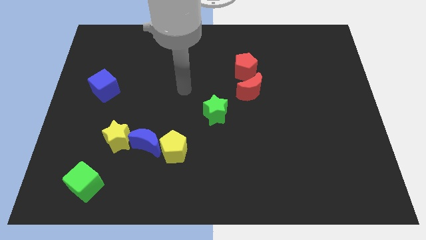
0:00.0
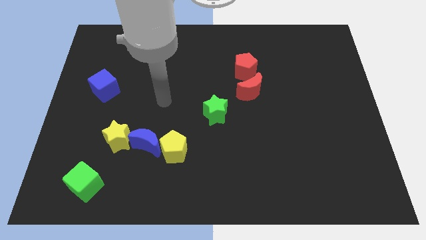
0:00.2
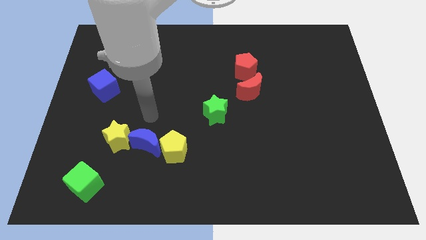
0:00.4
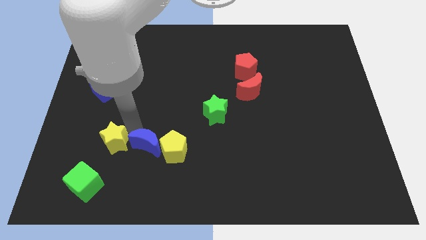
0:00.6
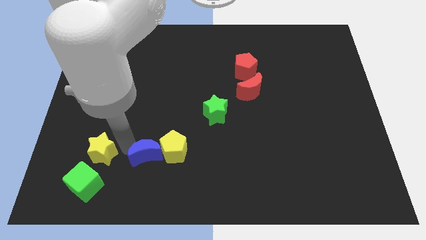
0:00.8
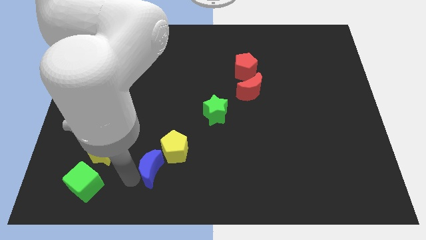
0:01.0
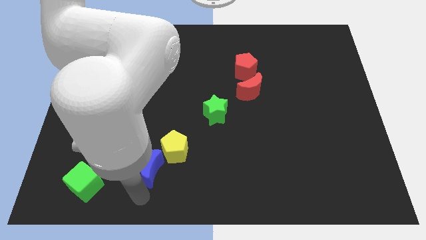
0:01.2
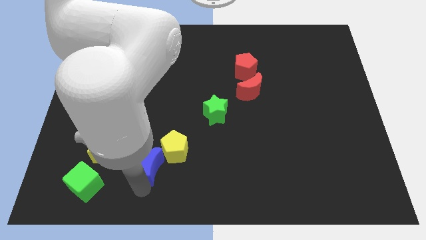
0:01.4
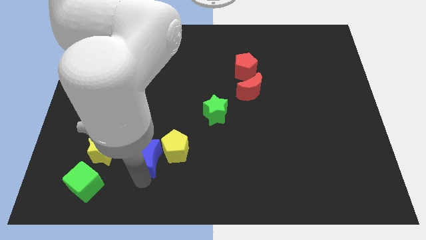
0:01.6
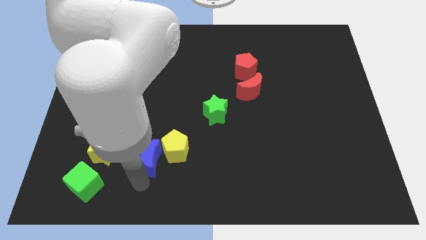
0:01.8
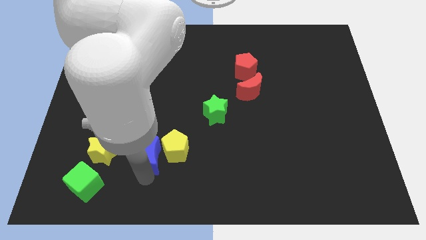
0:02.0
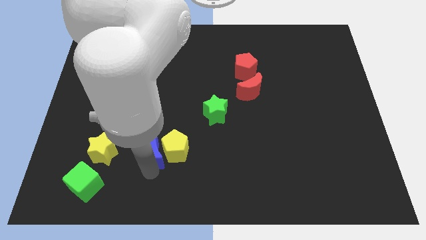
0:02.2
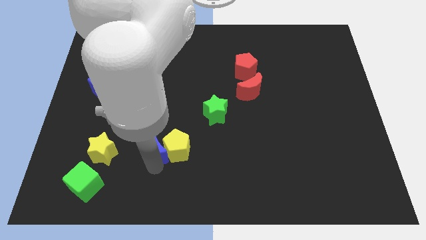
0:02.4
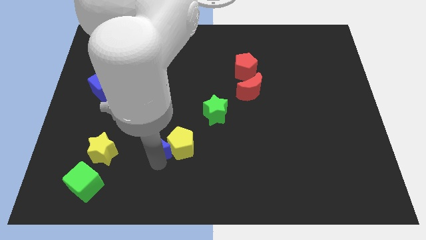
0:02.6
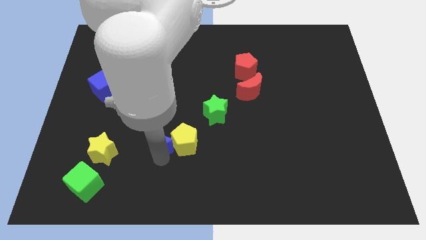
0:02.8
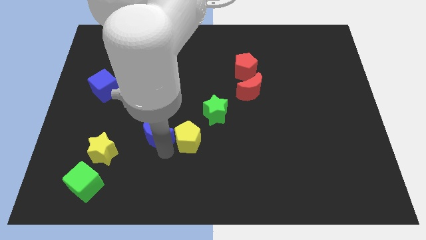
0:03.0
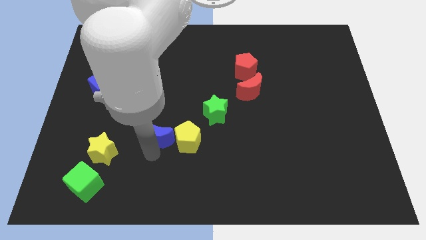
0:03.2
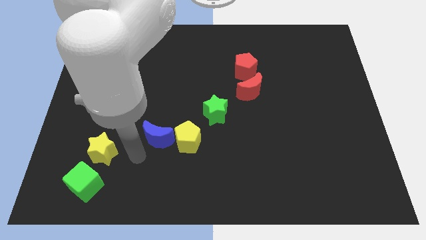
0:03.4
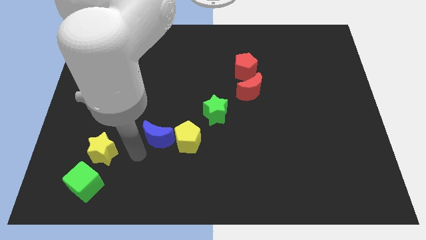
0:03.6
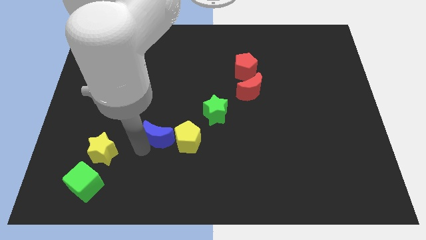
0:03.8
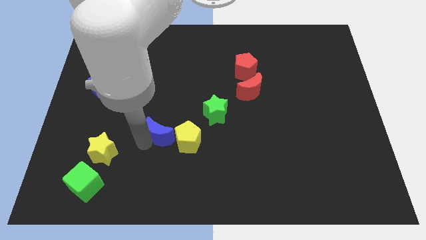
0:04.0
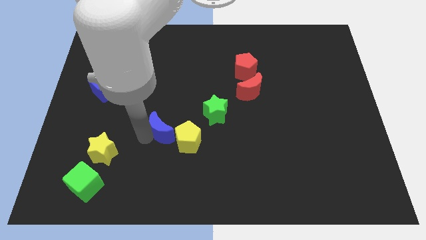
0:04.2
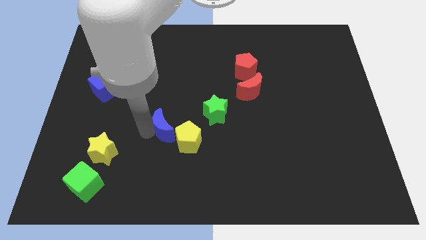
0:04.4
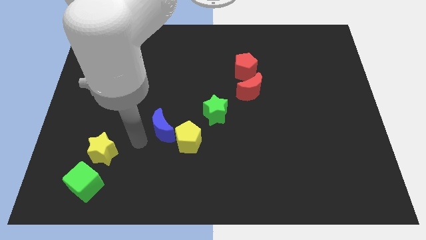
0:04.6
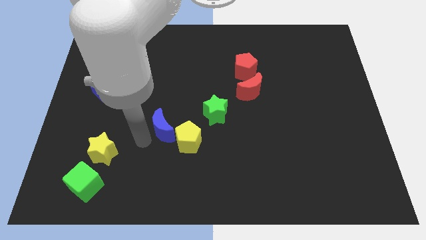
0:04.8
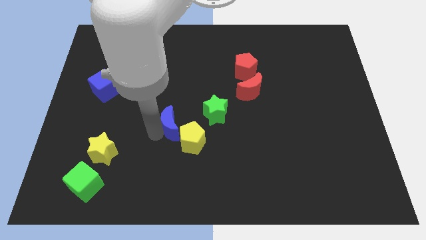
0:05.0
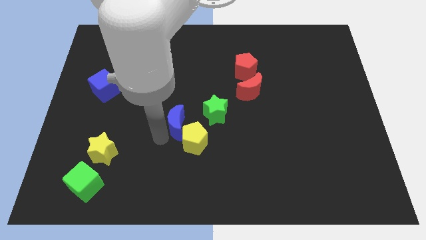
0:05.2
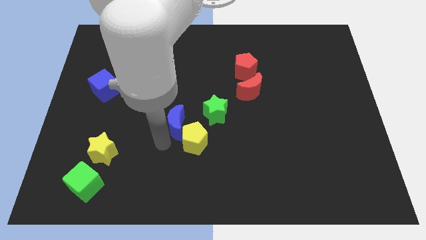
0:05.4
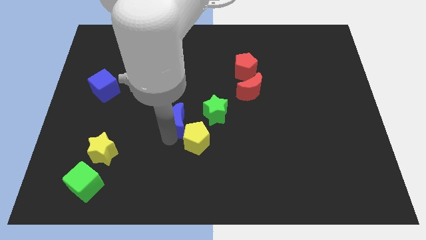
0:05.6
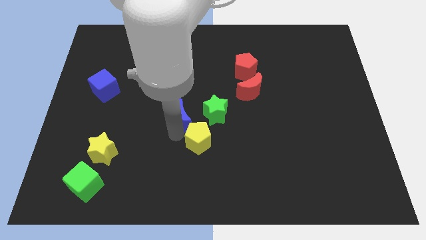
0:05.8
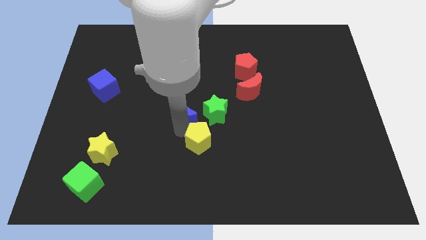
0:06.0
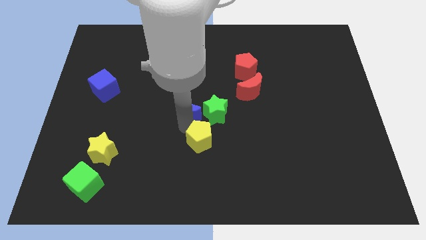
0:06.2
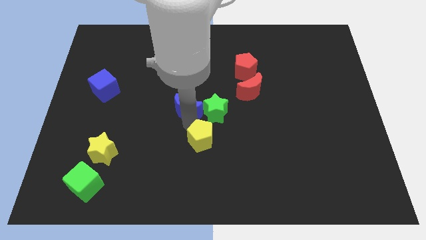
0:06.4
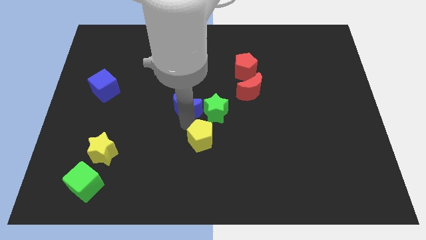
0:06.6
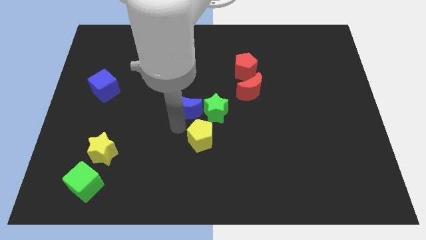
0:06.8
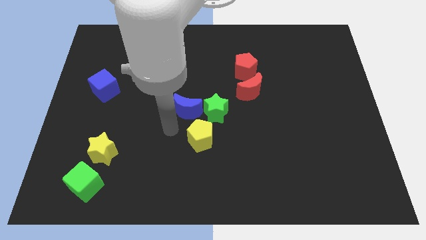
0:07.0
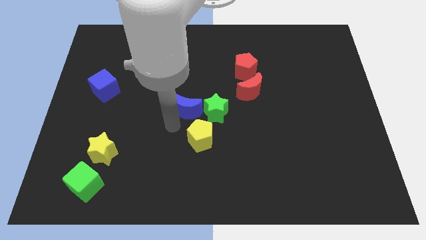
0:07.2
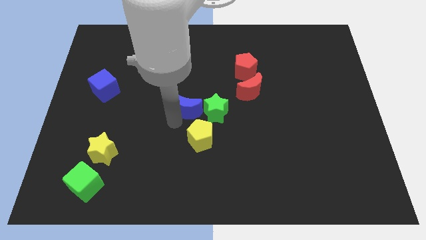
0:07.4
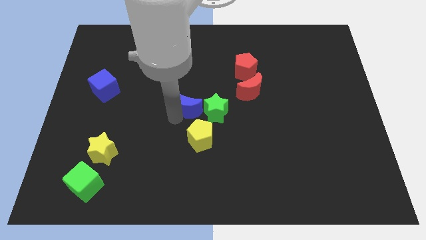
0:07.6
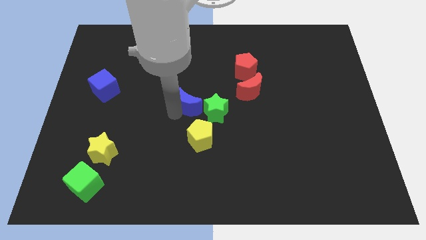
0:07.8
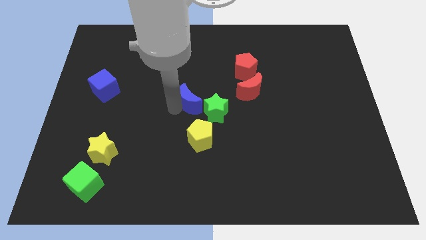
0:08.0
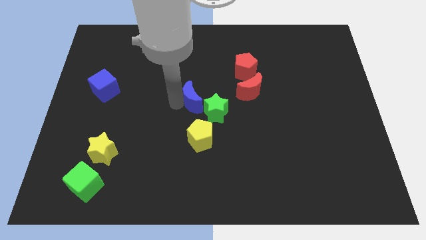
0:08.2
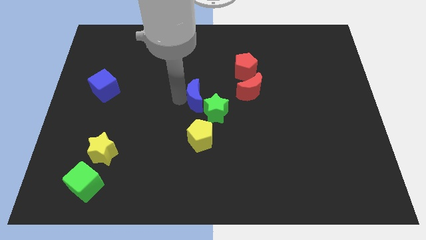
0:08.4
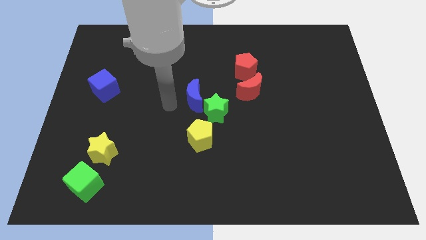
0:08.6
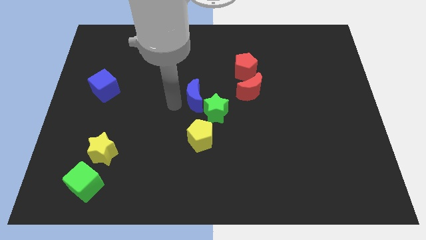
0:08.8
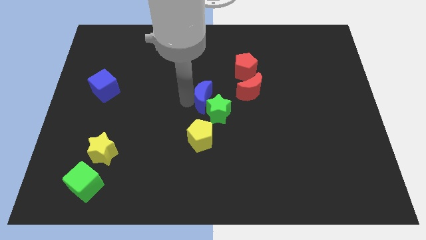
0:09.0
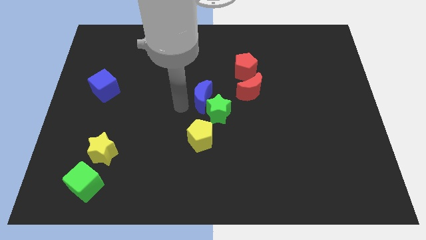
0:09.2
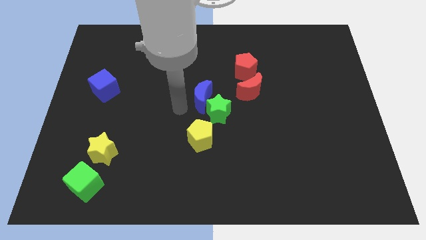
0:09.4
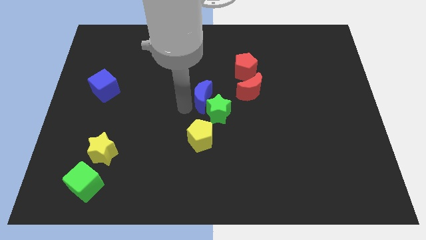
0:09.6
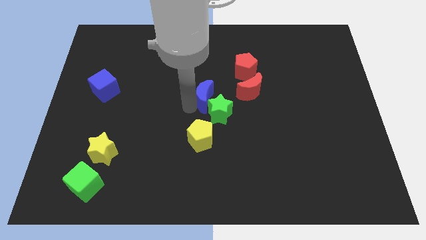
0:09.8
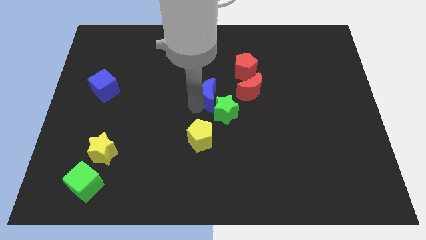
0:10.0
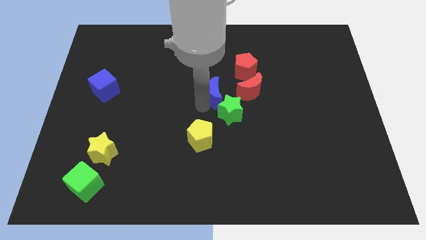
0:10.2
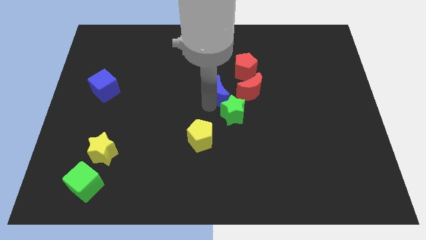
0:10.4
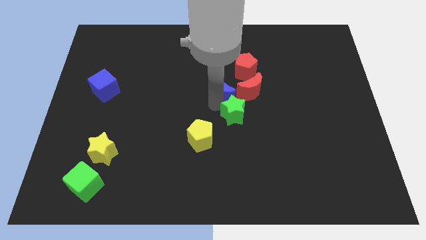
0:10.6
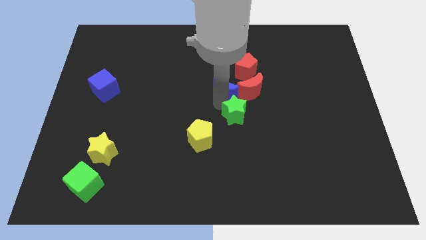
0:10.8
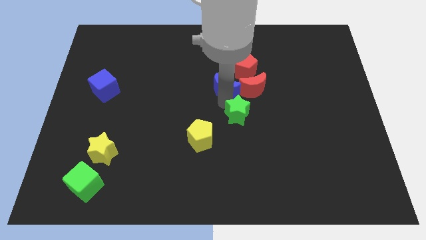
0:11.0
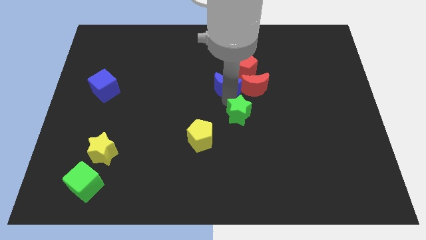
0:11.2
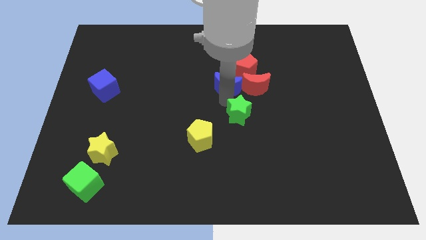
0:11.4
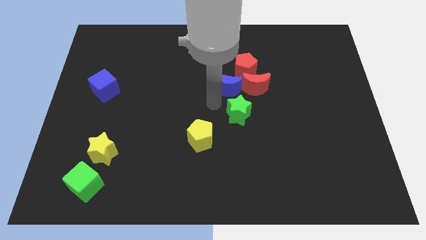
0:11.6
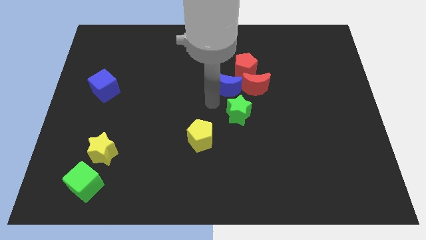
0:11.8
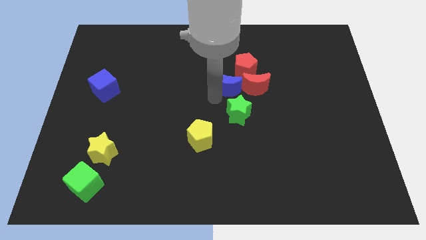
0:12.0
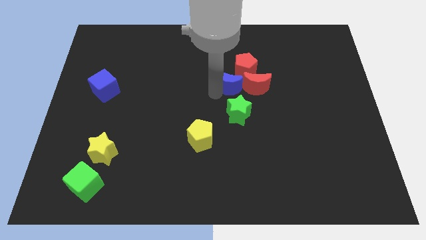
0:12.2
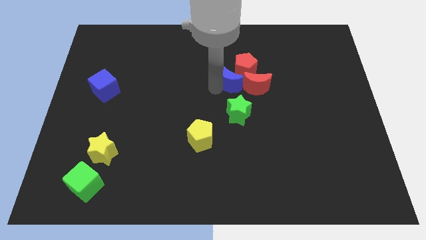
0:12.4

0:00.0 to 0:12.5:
move the blue moon next to the red pentagon

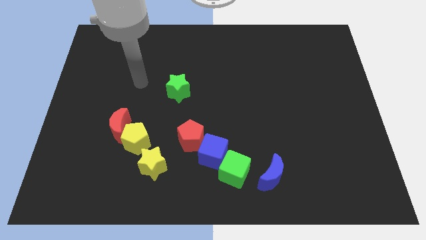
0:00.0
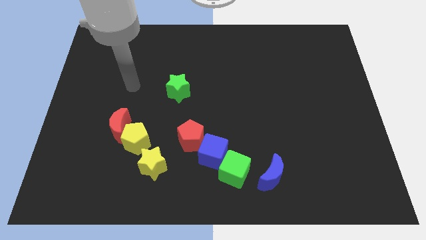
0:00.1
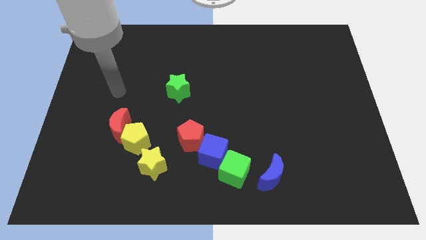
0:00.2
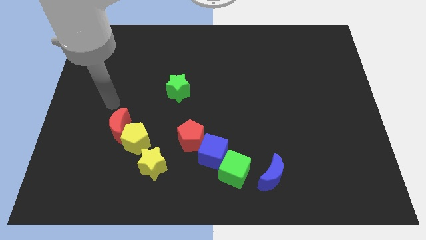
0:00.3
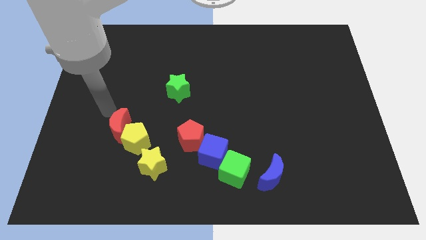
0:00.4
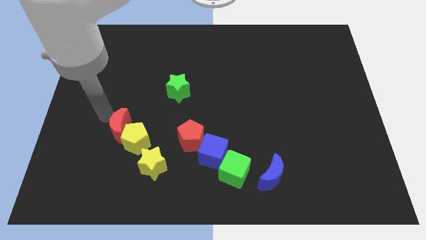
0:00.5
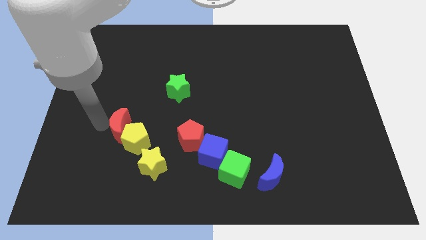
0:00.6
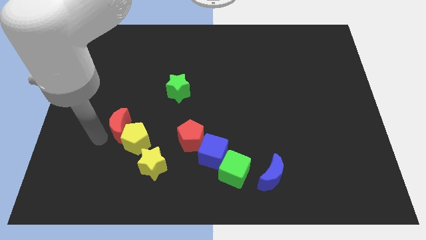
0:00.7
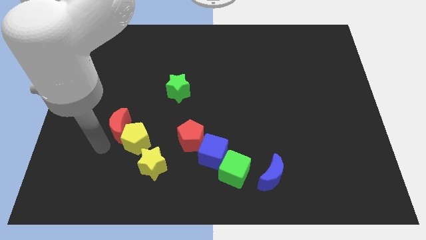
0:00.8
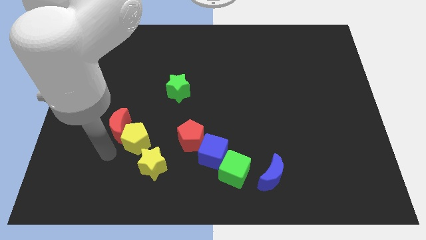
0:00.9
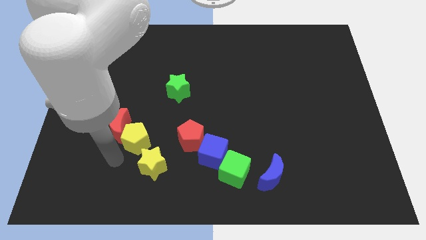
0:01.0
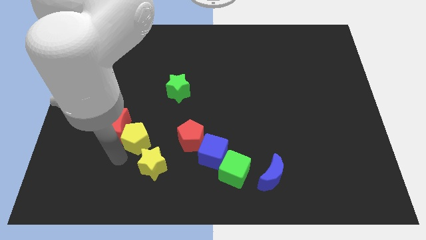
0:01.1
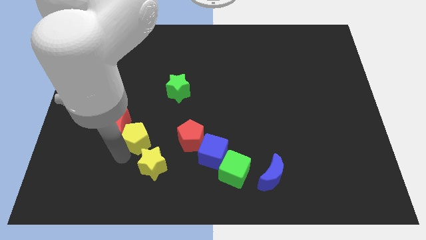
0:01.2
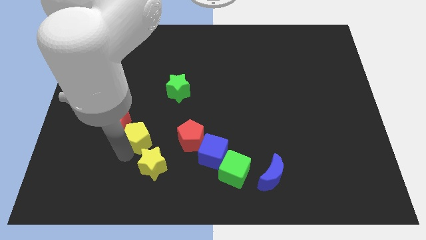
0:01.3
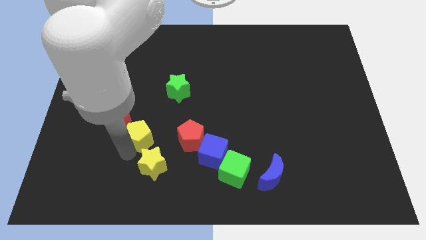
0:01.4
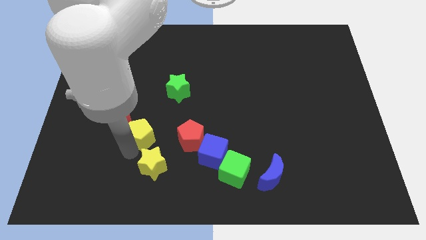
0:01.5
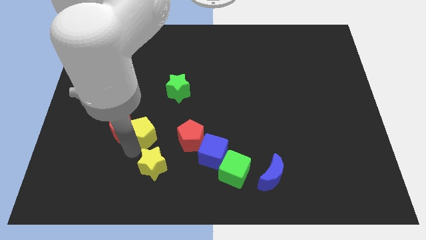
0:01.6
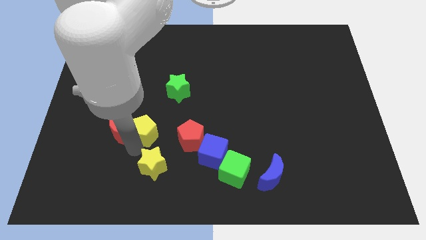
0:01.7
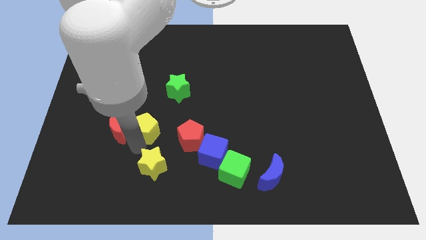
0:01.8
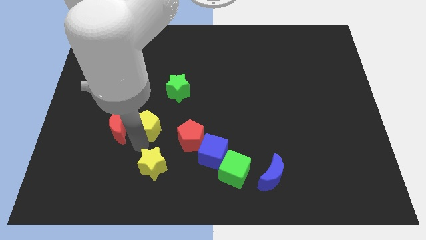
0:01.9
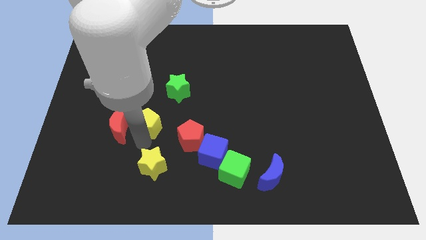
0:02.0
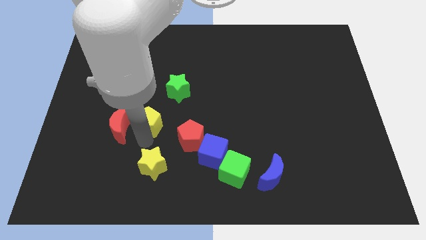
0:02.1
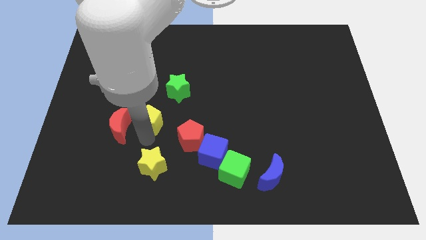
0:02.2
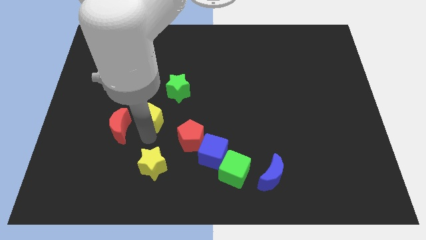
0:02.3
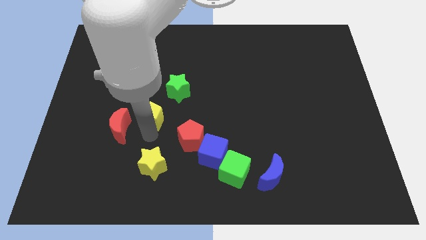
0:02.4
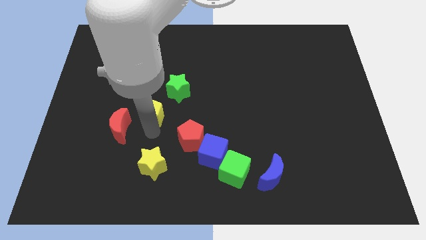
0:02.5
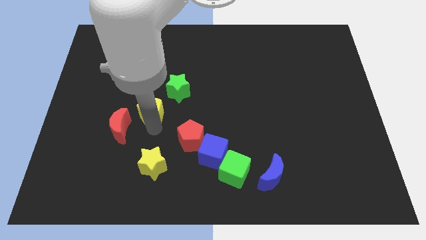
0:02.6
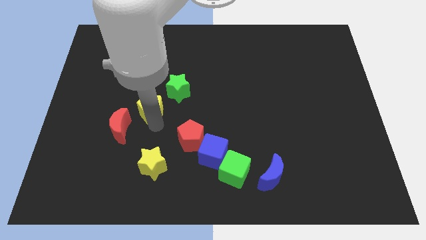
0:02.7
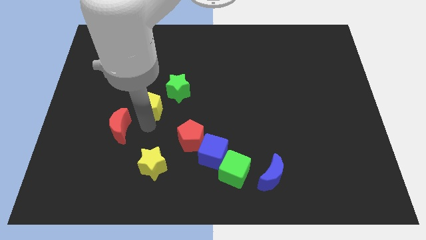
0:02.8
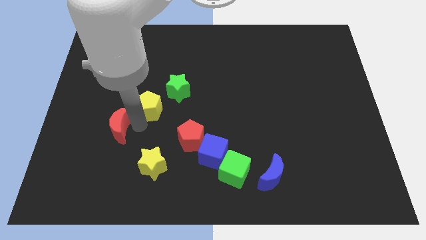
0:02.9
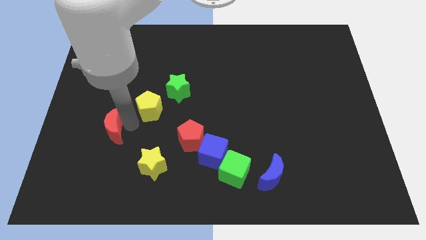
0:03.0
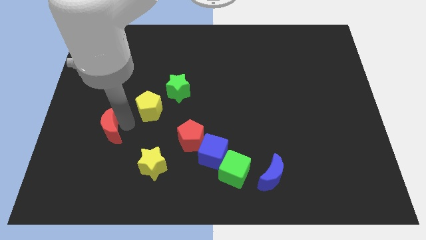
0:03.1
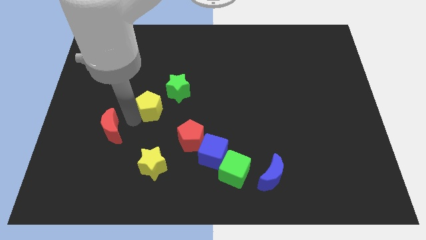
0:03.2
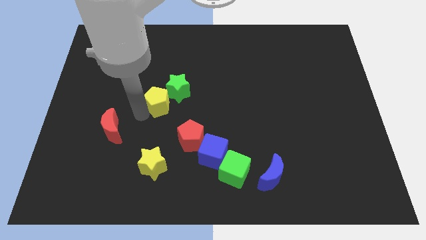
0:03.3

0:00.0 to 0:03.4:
move the yellow pentagon close to the green star
